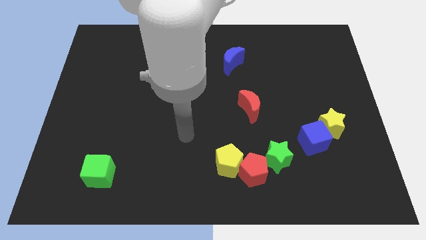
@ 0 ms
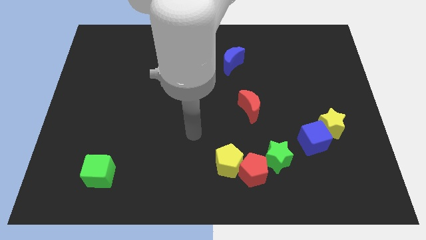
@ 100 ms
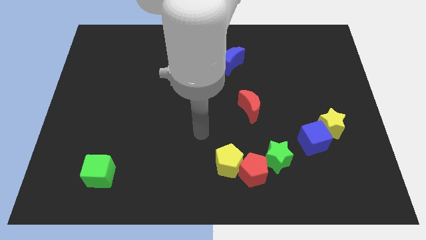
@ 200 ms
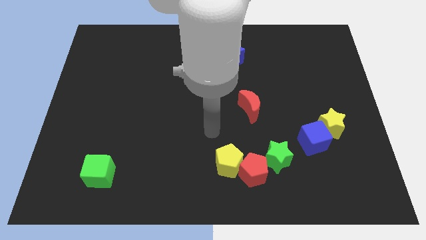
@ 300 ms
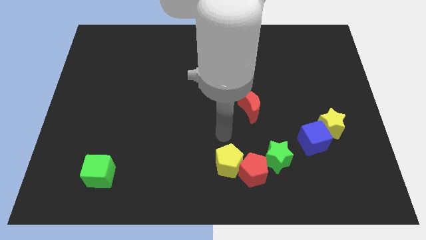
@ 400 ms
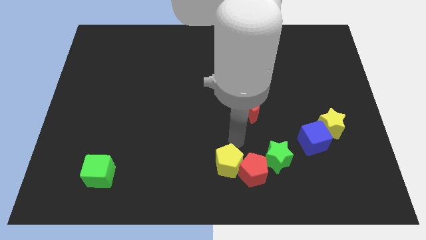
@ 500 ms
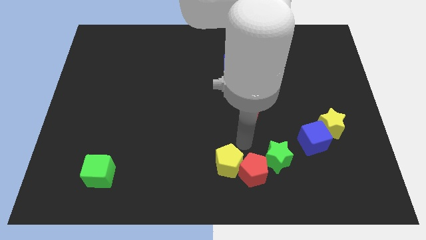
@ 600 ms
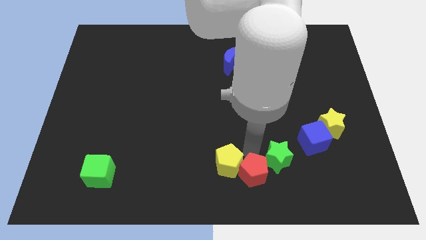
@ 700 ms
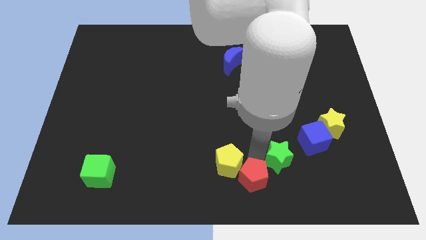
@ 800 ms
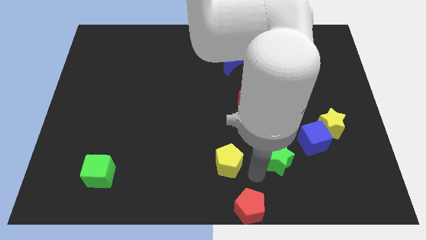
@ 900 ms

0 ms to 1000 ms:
pull the yellow pentagon apart from the red pentagon

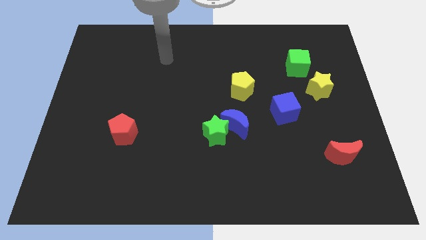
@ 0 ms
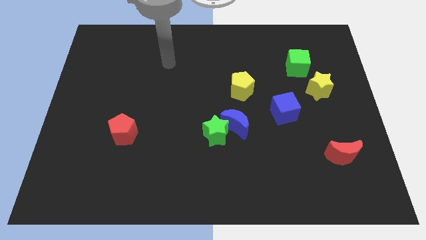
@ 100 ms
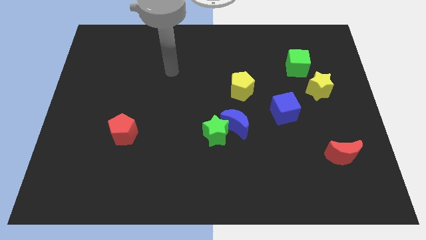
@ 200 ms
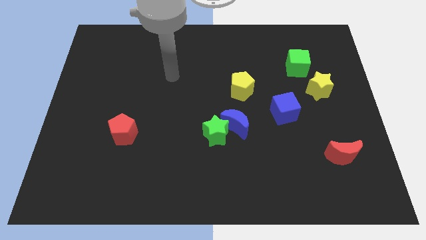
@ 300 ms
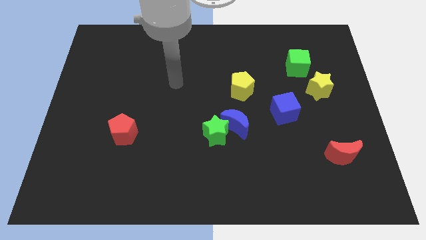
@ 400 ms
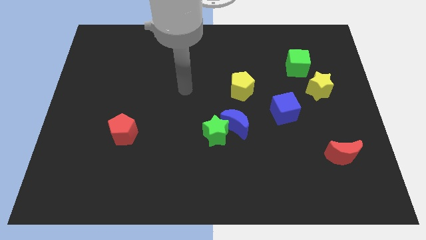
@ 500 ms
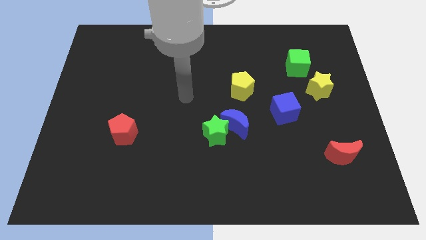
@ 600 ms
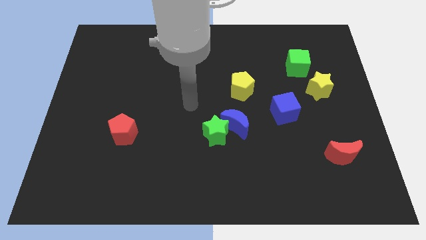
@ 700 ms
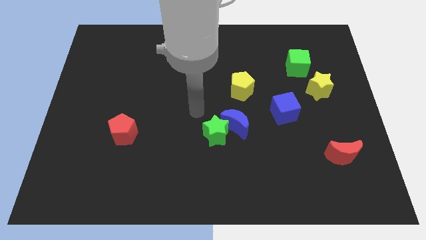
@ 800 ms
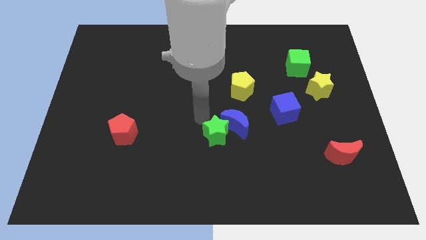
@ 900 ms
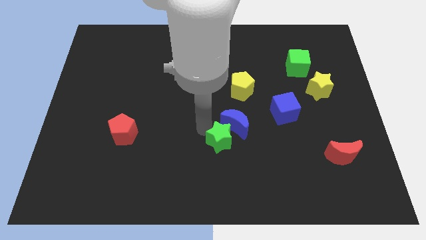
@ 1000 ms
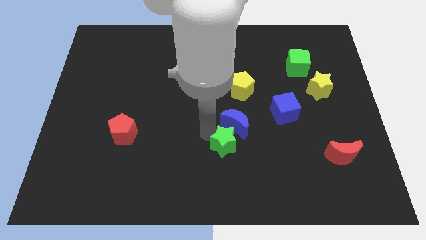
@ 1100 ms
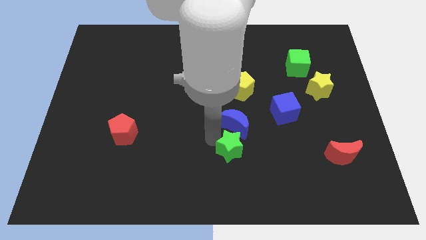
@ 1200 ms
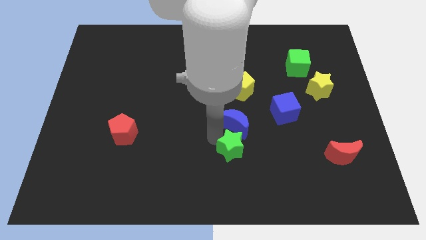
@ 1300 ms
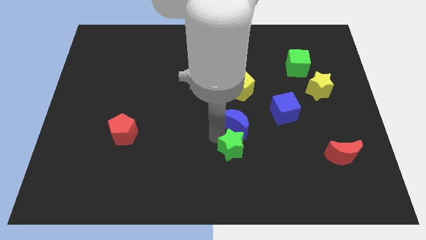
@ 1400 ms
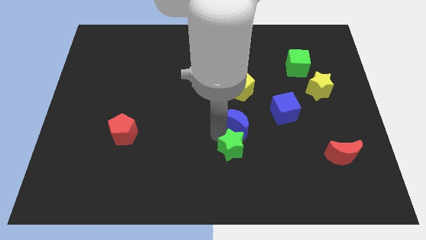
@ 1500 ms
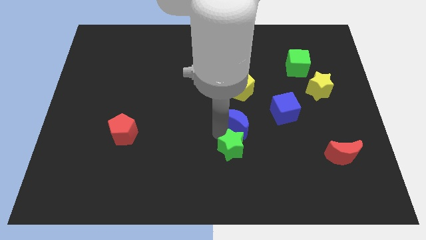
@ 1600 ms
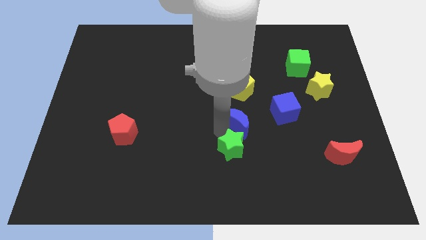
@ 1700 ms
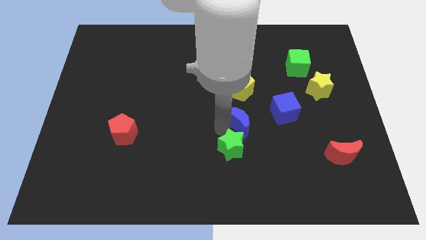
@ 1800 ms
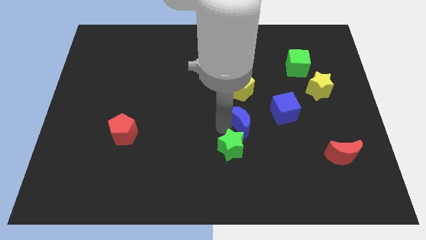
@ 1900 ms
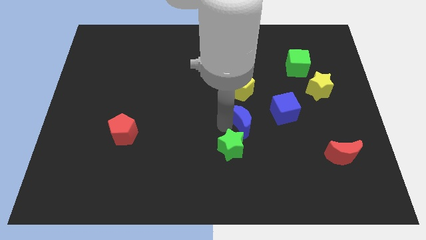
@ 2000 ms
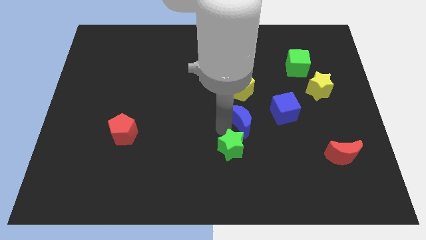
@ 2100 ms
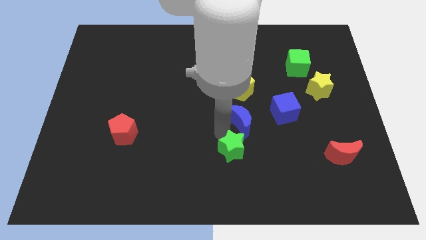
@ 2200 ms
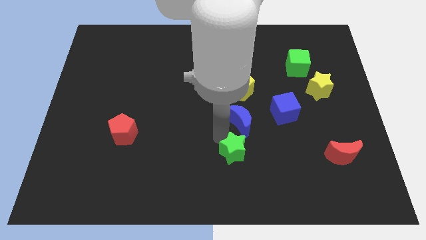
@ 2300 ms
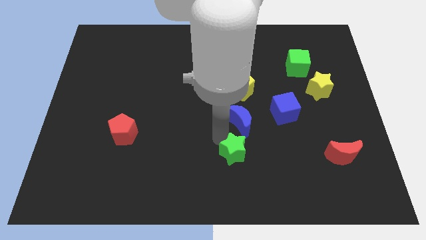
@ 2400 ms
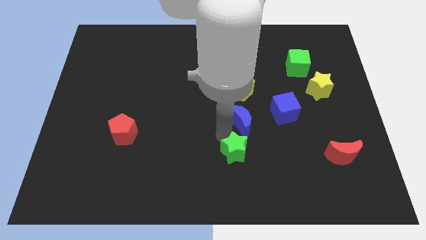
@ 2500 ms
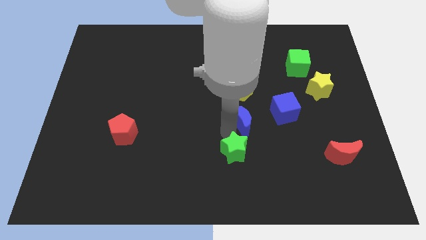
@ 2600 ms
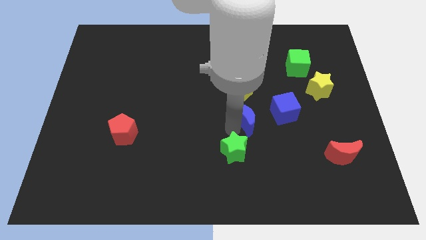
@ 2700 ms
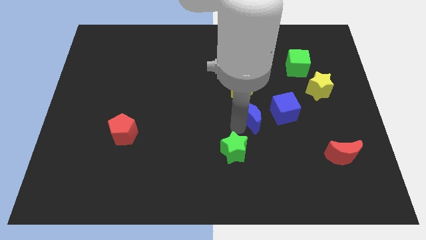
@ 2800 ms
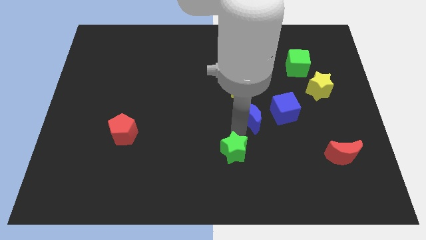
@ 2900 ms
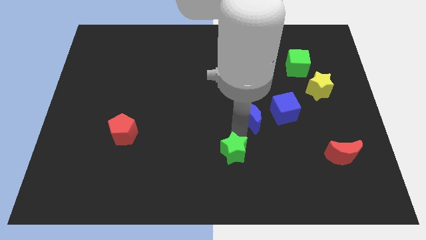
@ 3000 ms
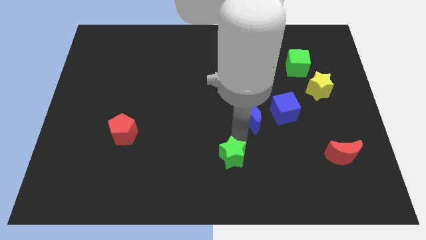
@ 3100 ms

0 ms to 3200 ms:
move the blue moon away from the green star

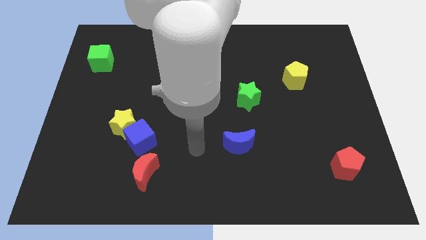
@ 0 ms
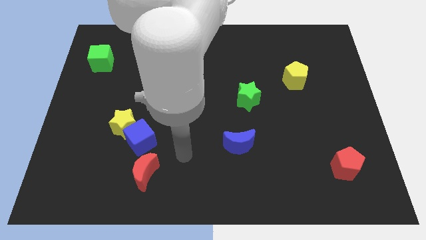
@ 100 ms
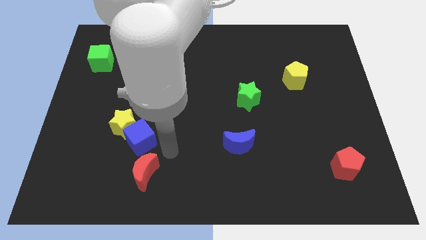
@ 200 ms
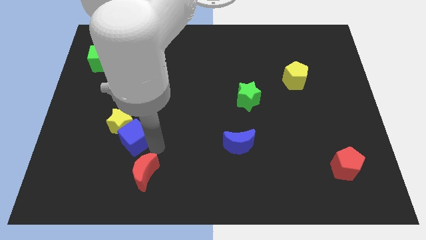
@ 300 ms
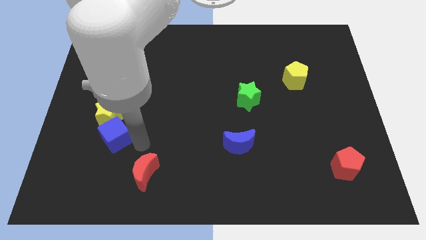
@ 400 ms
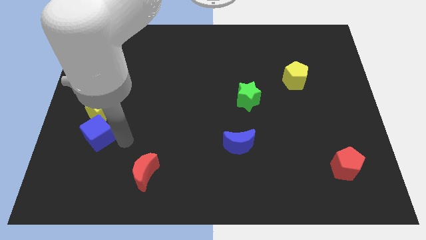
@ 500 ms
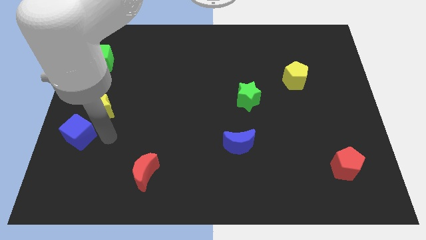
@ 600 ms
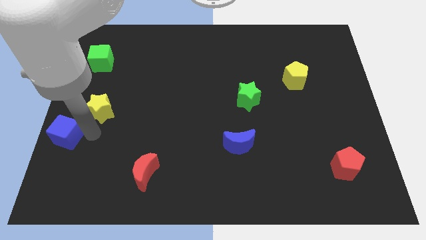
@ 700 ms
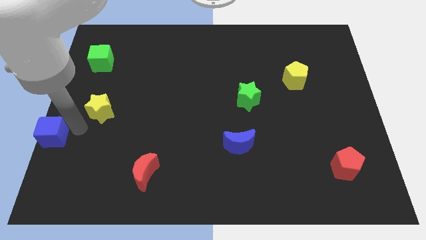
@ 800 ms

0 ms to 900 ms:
pull the yellow star apart from the blue cube

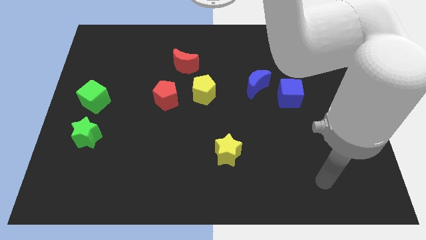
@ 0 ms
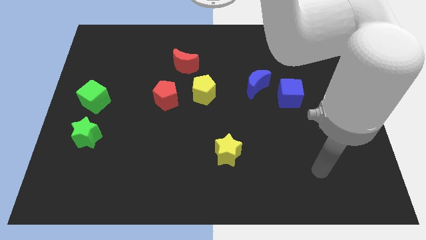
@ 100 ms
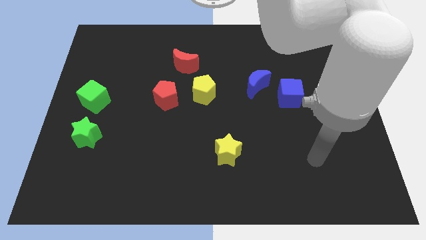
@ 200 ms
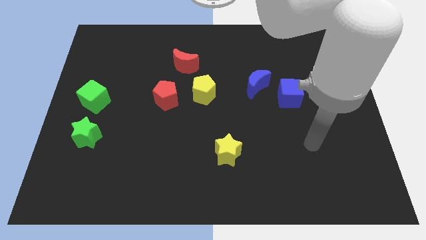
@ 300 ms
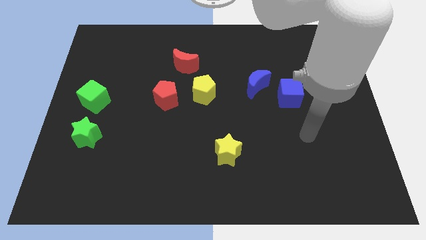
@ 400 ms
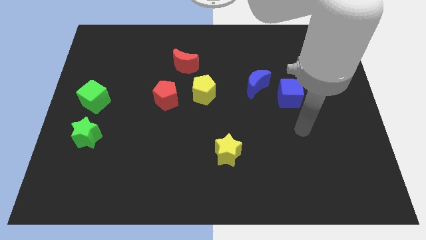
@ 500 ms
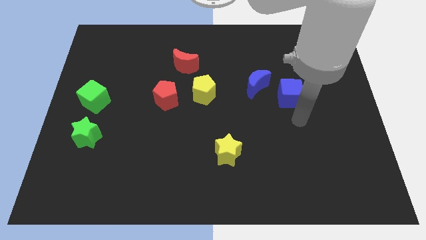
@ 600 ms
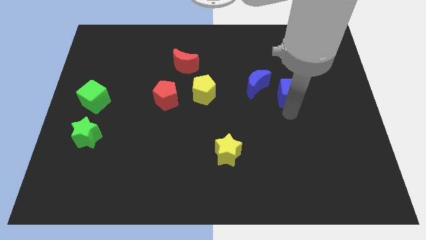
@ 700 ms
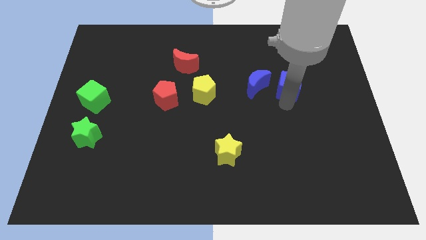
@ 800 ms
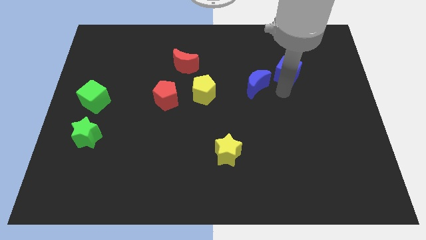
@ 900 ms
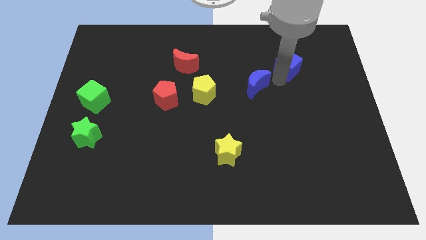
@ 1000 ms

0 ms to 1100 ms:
separate the blue moon from the blue cube

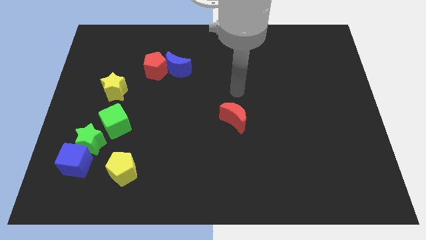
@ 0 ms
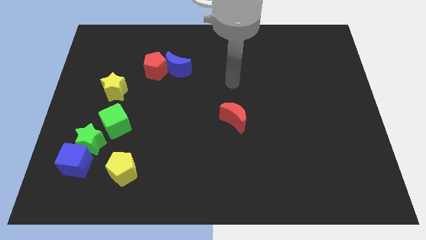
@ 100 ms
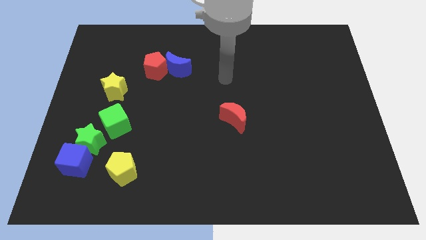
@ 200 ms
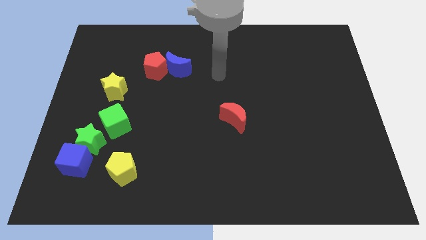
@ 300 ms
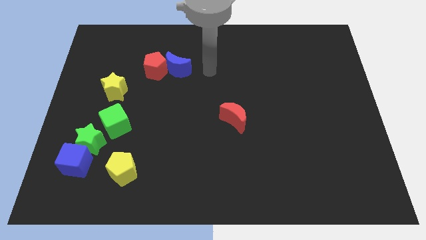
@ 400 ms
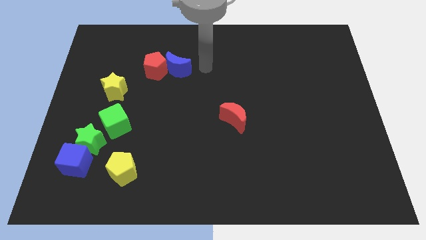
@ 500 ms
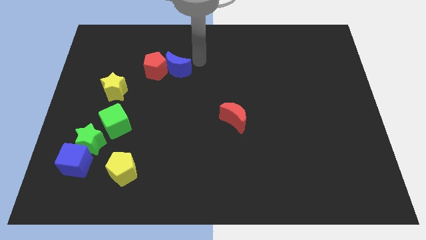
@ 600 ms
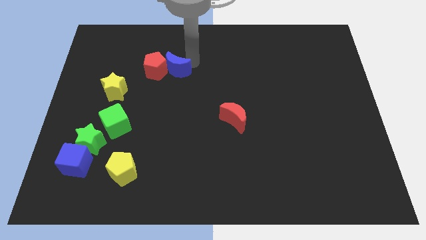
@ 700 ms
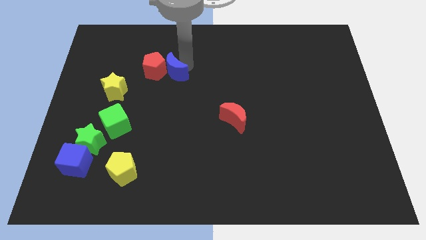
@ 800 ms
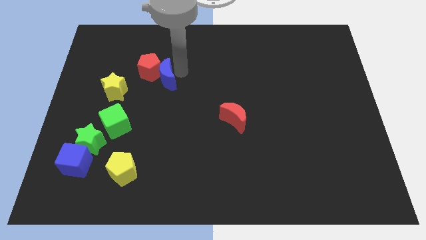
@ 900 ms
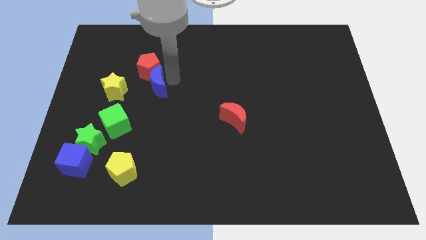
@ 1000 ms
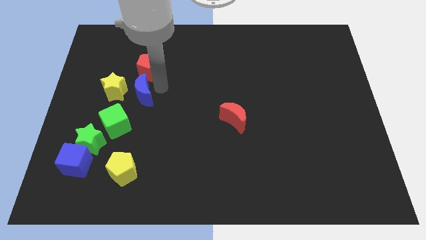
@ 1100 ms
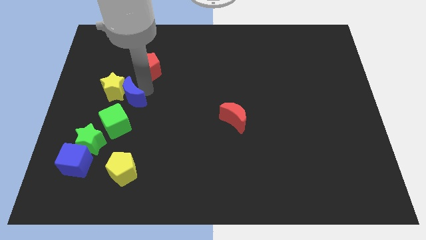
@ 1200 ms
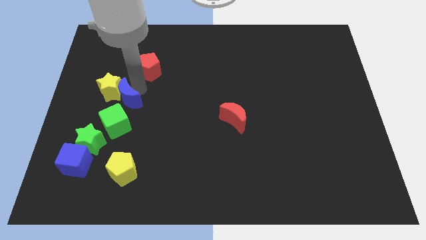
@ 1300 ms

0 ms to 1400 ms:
move the red pentagon away from the blue moon

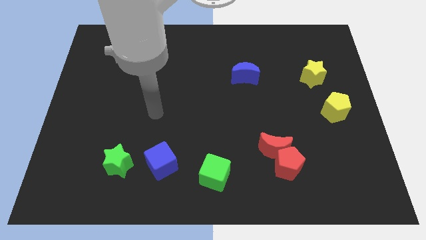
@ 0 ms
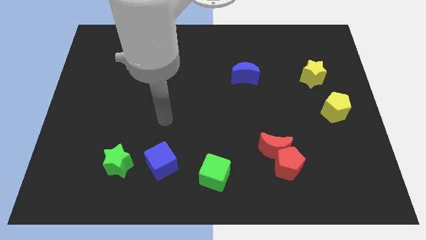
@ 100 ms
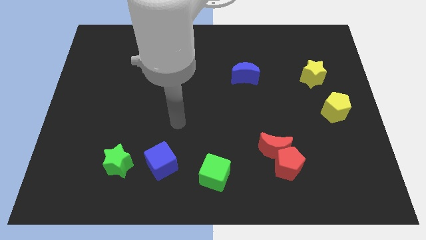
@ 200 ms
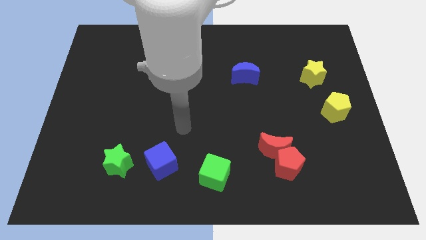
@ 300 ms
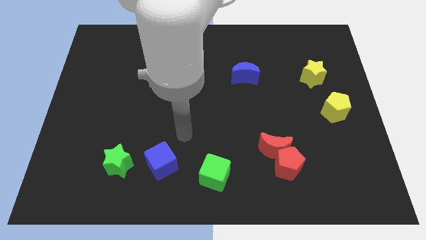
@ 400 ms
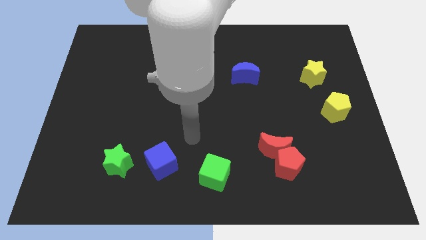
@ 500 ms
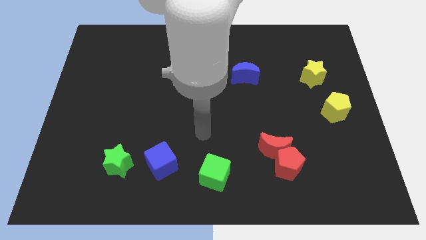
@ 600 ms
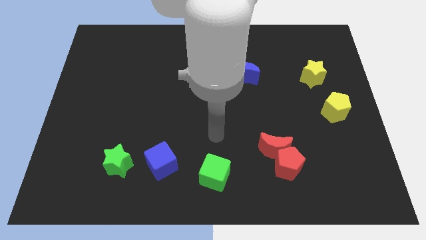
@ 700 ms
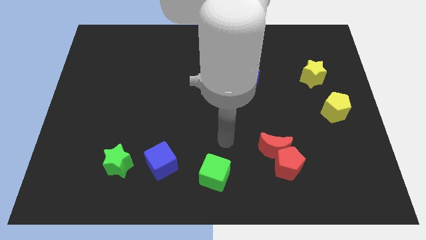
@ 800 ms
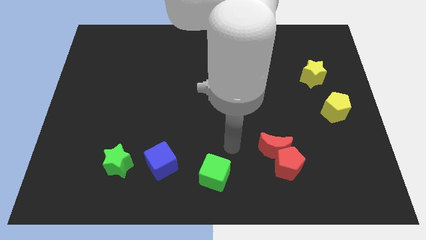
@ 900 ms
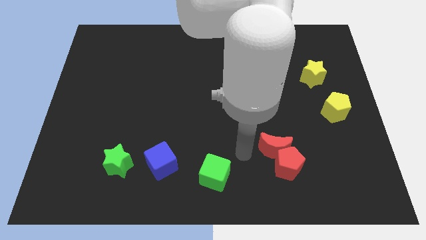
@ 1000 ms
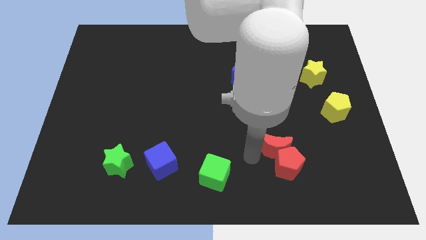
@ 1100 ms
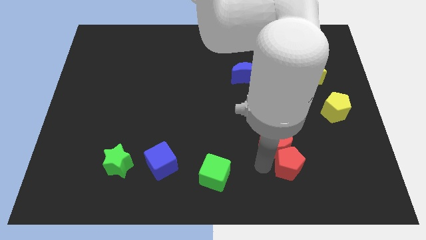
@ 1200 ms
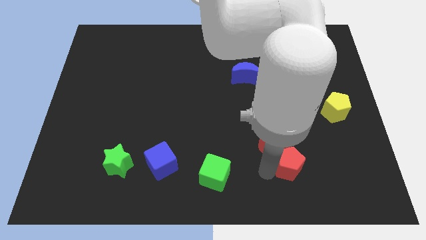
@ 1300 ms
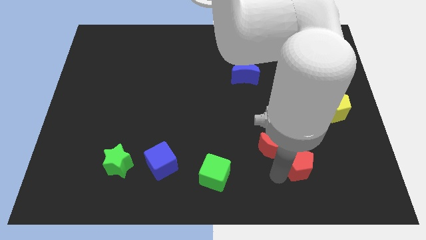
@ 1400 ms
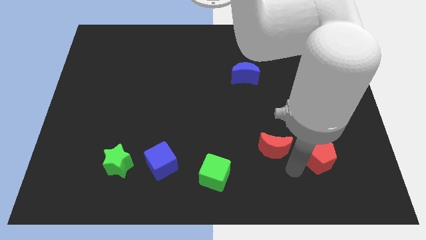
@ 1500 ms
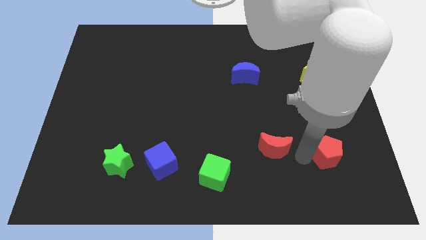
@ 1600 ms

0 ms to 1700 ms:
pull the red moon apart from the red pentagon

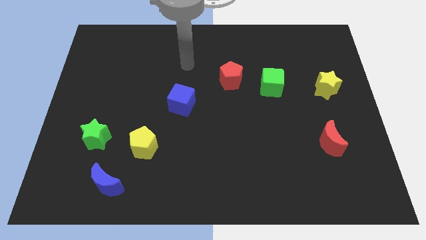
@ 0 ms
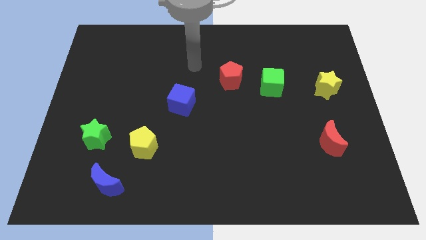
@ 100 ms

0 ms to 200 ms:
pull the red pentagon apart from the green cube
